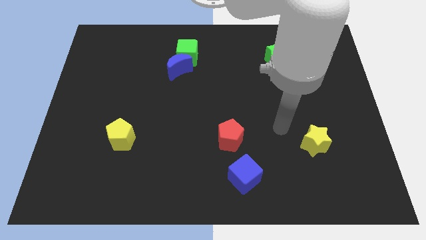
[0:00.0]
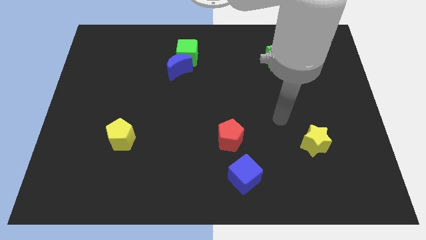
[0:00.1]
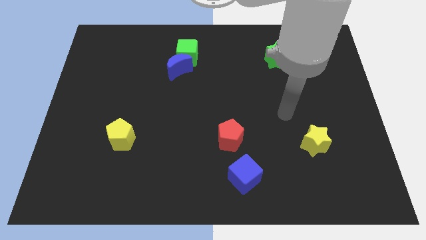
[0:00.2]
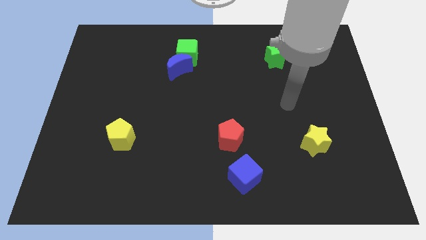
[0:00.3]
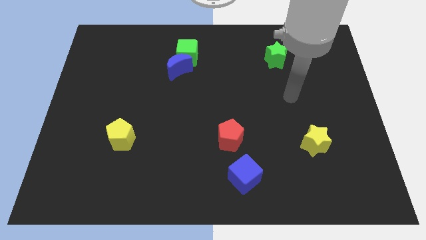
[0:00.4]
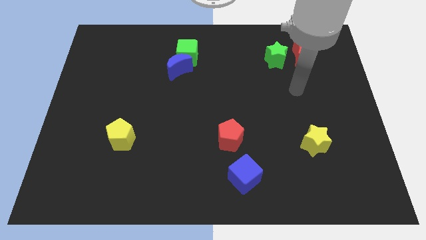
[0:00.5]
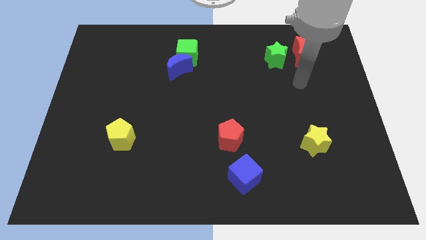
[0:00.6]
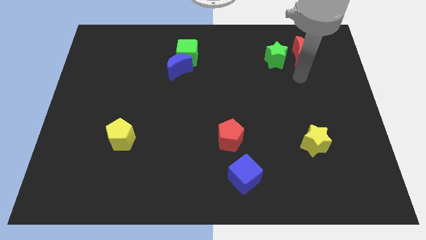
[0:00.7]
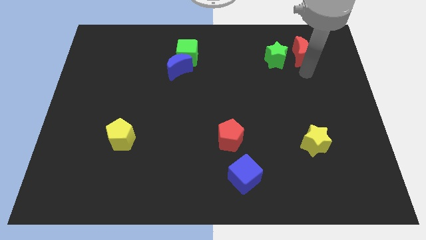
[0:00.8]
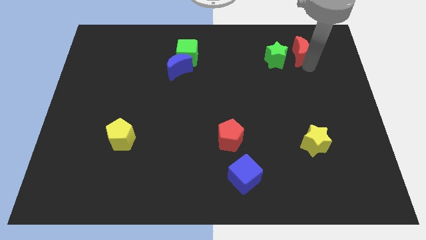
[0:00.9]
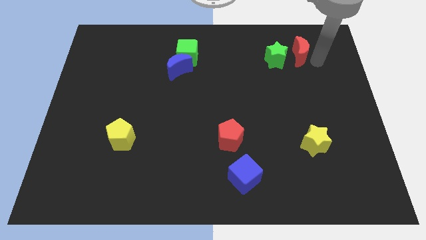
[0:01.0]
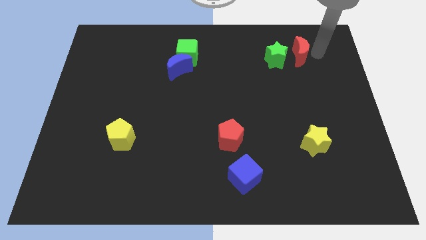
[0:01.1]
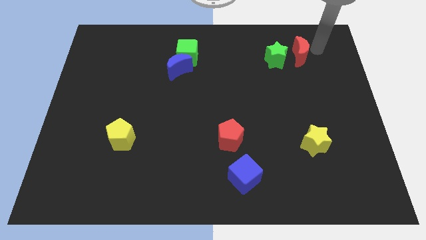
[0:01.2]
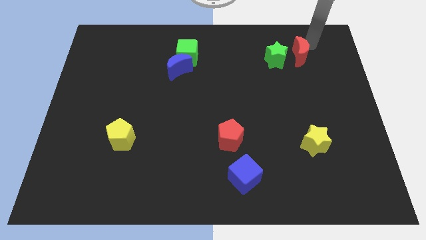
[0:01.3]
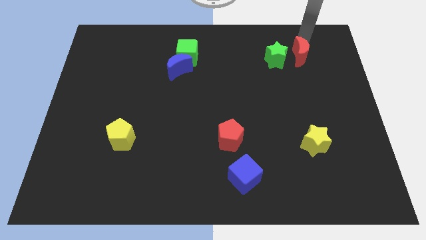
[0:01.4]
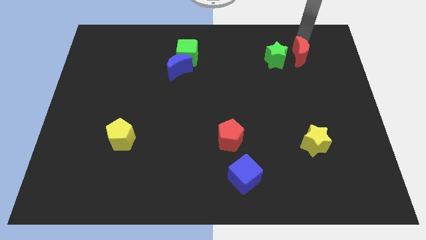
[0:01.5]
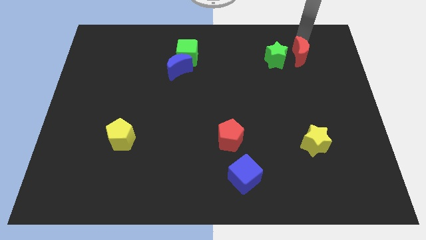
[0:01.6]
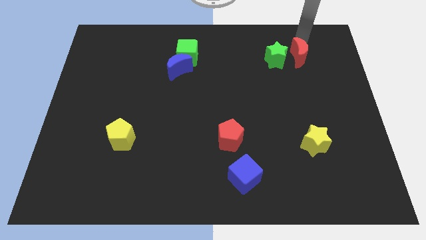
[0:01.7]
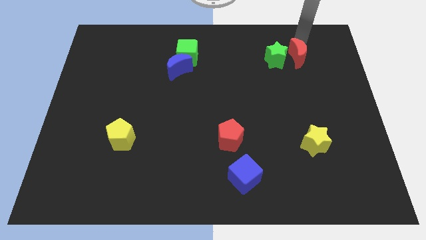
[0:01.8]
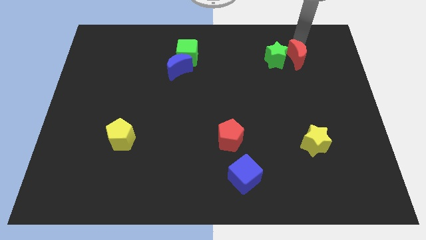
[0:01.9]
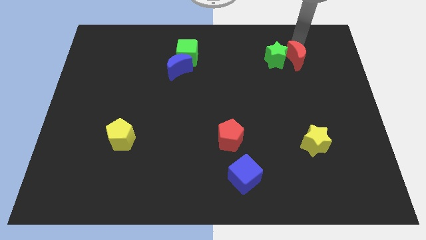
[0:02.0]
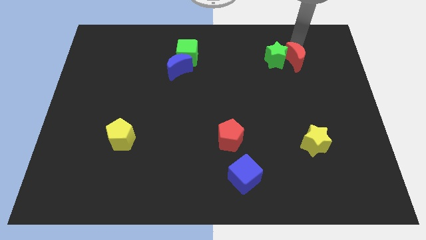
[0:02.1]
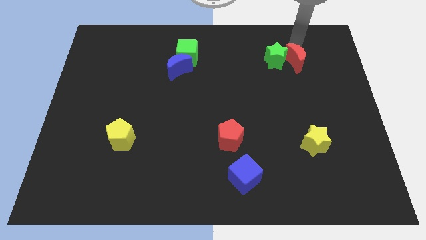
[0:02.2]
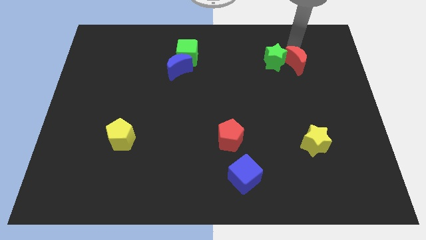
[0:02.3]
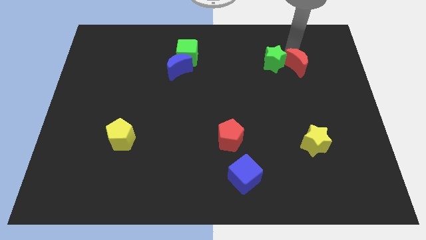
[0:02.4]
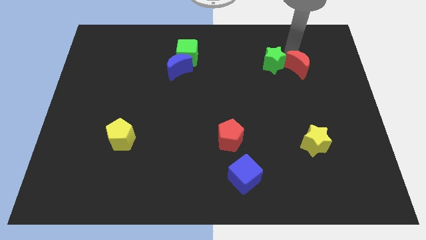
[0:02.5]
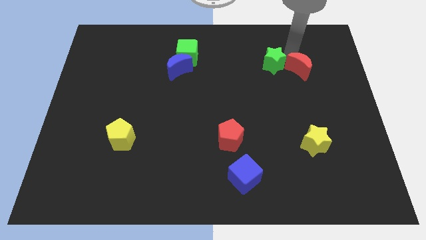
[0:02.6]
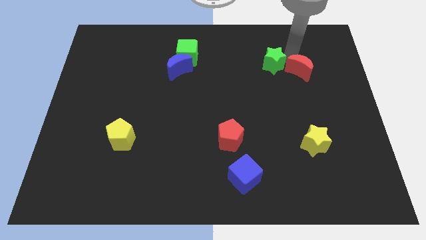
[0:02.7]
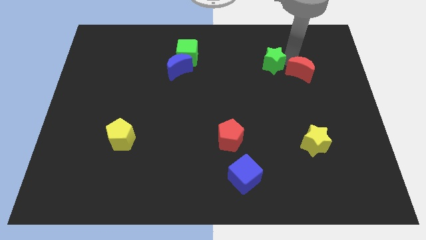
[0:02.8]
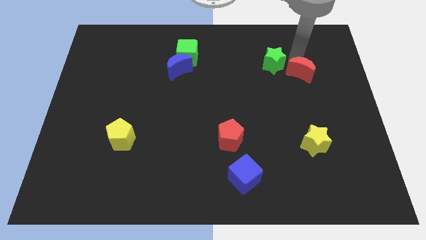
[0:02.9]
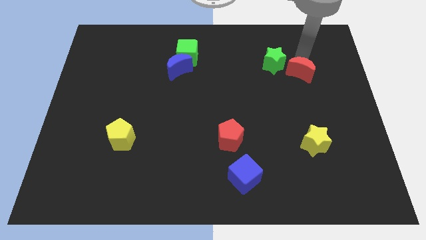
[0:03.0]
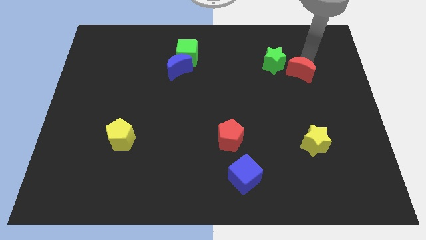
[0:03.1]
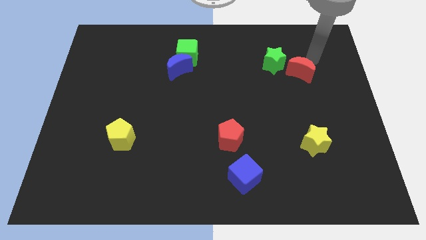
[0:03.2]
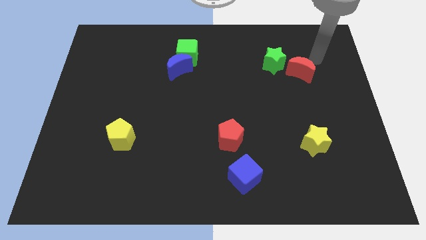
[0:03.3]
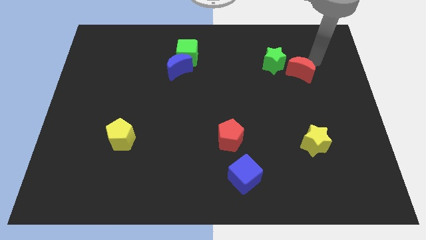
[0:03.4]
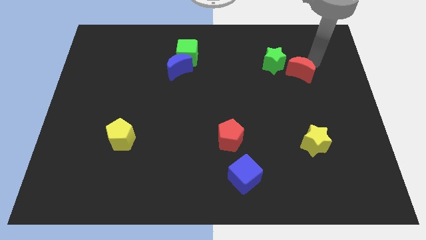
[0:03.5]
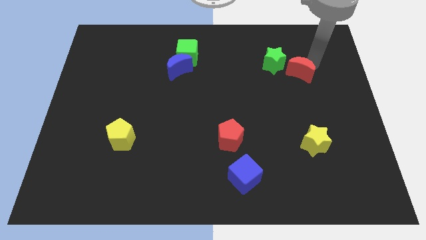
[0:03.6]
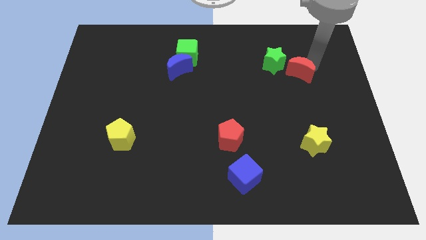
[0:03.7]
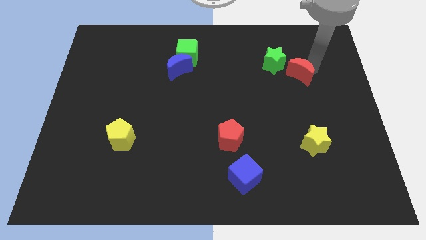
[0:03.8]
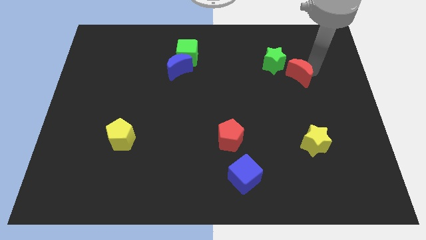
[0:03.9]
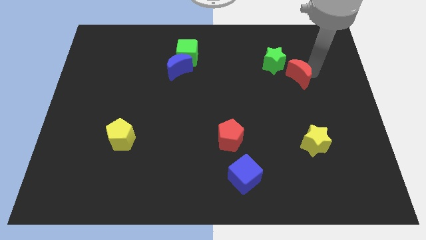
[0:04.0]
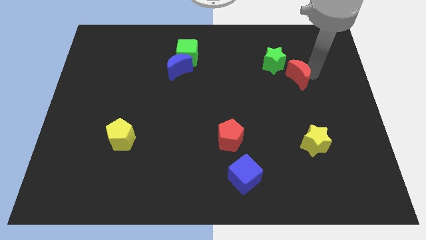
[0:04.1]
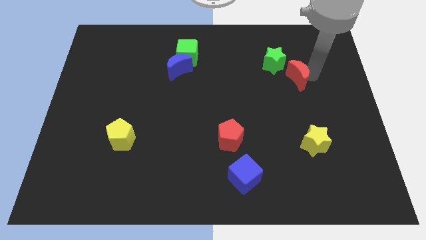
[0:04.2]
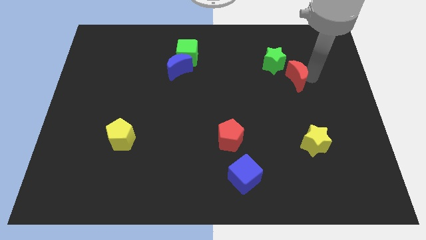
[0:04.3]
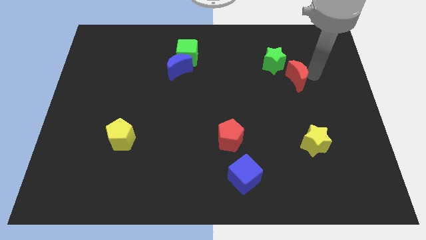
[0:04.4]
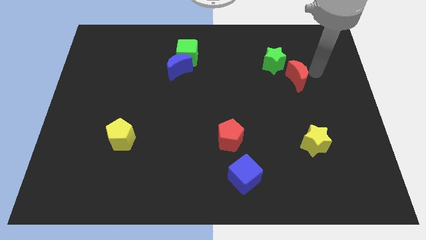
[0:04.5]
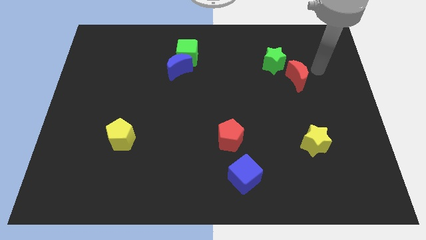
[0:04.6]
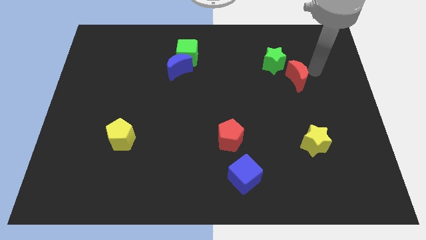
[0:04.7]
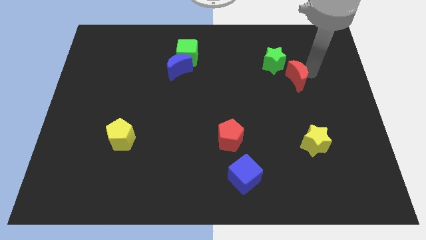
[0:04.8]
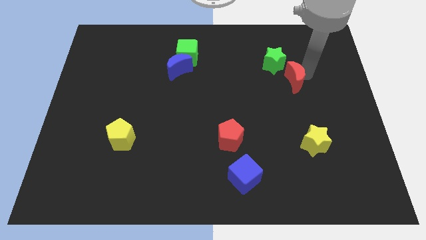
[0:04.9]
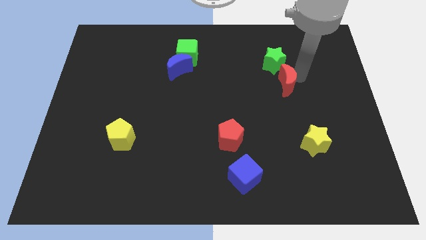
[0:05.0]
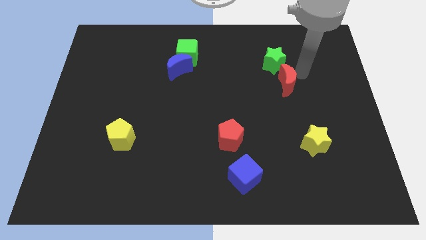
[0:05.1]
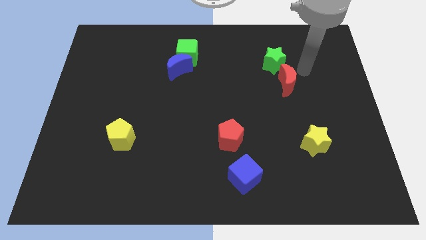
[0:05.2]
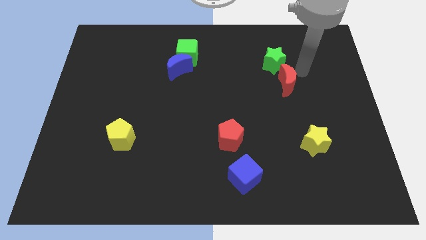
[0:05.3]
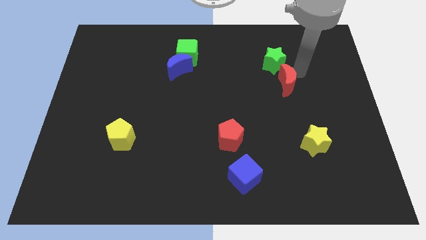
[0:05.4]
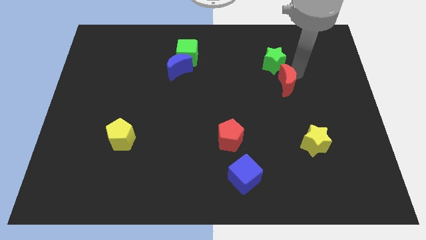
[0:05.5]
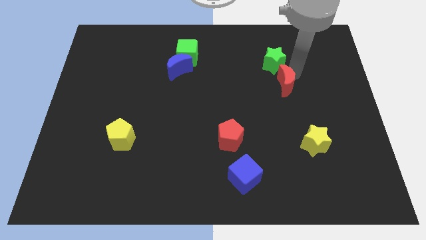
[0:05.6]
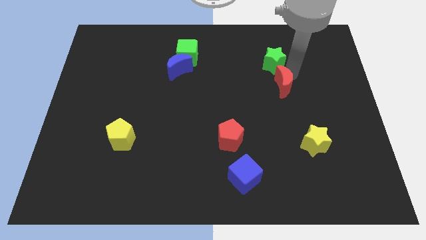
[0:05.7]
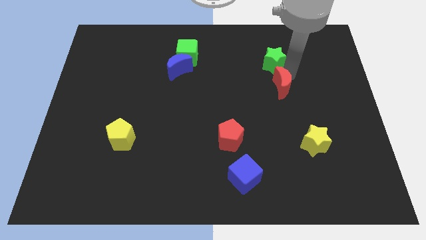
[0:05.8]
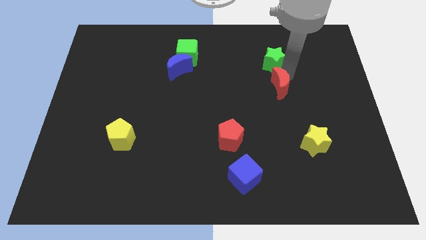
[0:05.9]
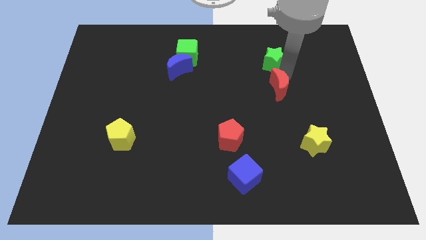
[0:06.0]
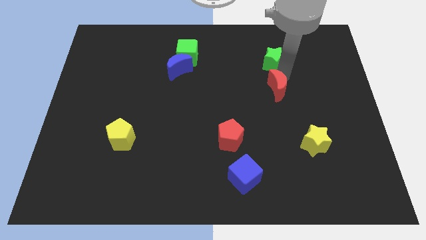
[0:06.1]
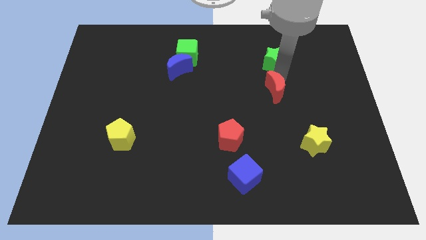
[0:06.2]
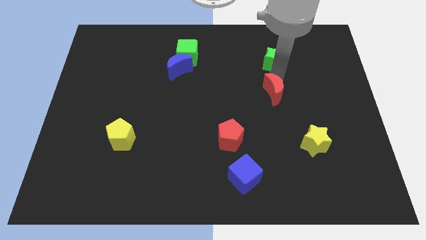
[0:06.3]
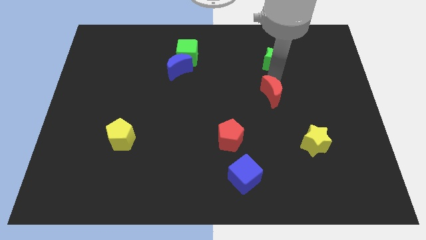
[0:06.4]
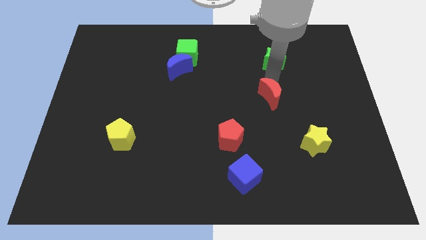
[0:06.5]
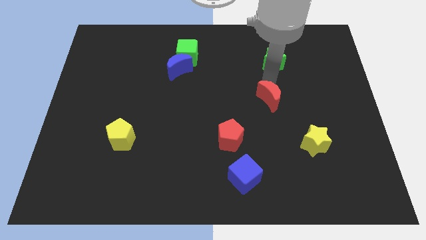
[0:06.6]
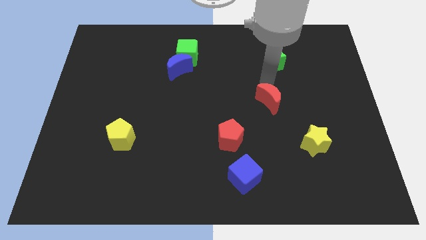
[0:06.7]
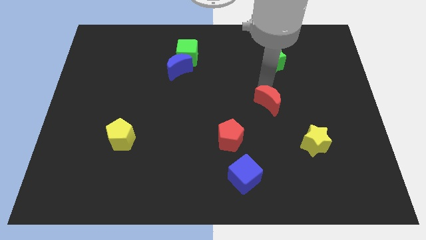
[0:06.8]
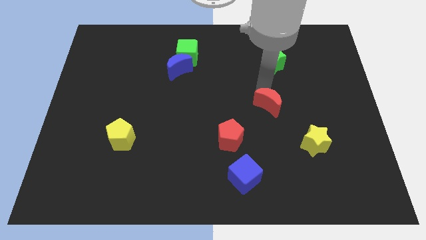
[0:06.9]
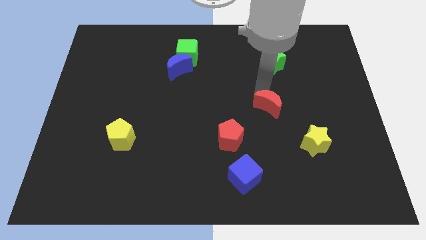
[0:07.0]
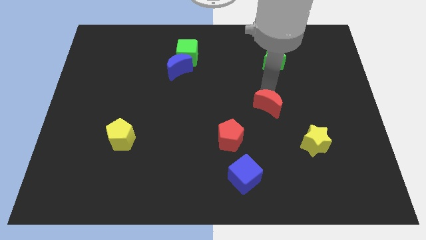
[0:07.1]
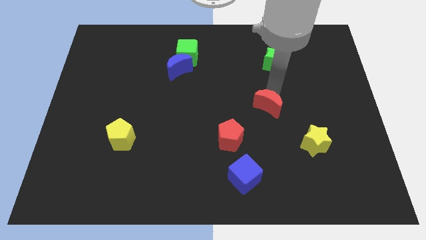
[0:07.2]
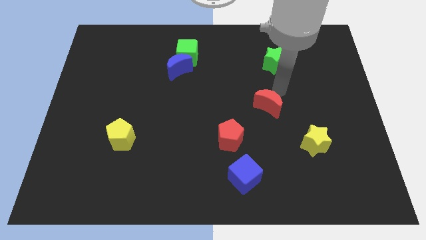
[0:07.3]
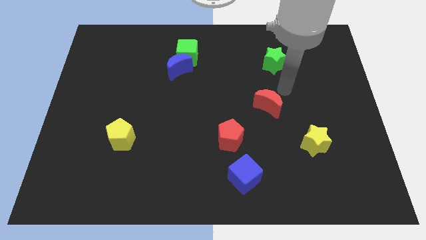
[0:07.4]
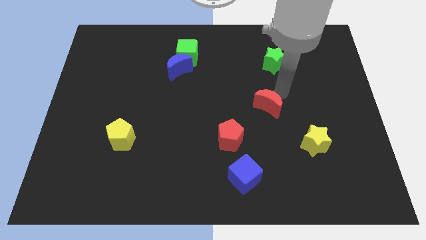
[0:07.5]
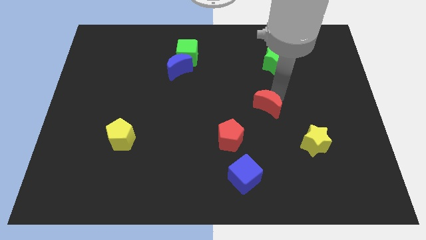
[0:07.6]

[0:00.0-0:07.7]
slide the red moon diagonally up and to the right of the red pentagon
